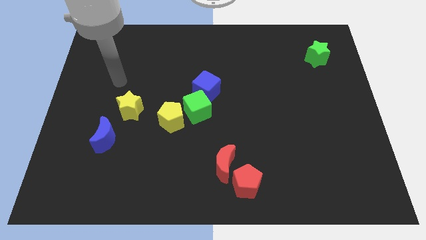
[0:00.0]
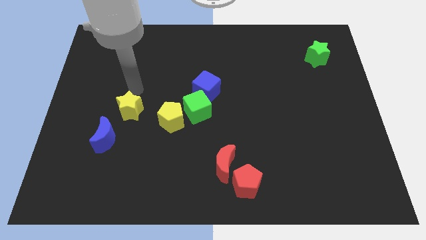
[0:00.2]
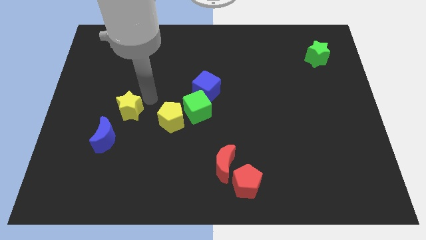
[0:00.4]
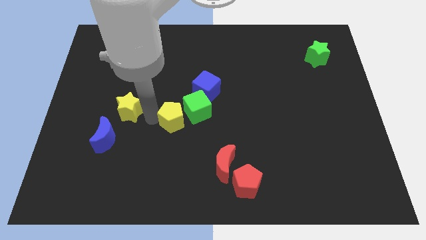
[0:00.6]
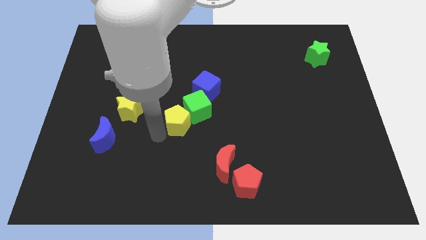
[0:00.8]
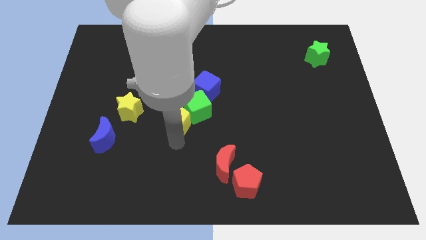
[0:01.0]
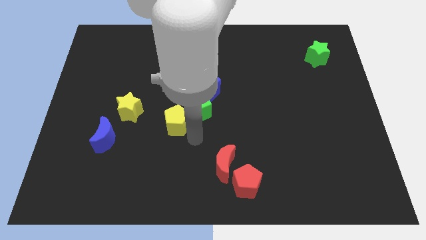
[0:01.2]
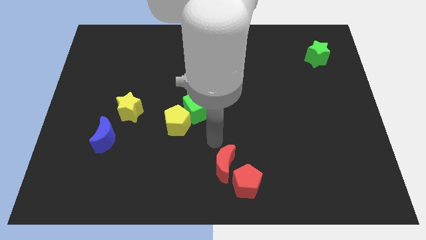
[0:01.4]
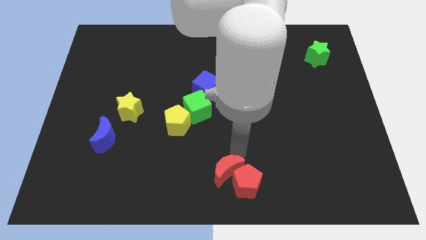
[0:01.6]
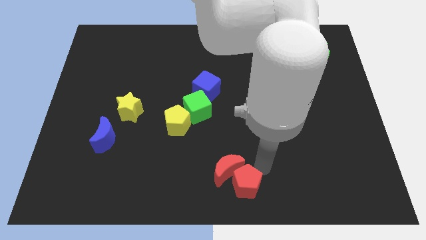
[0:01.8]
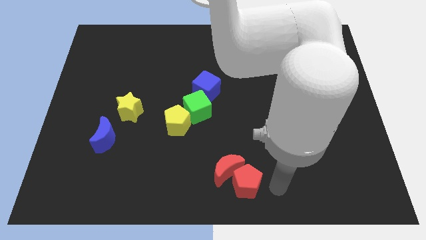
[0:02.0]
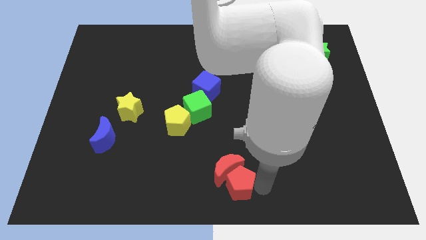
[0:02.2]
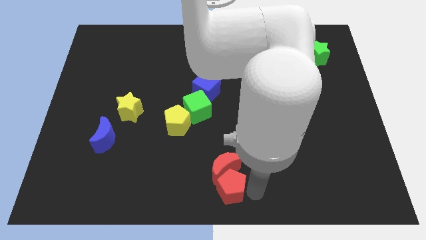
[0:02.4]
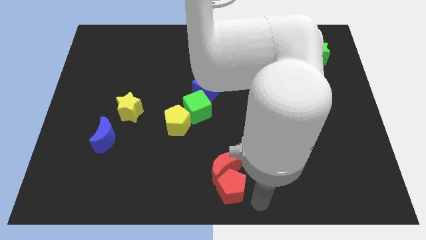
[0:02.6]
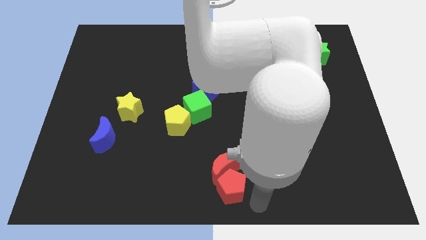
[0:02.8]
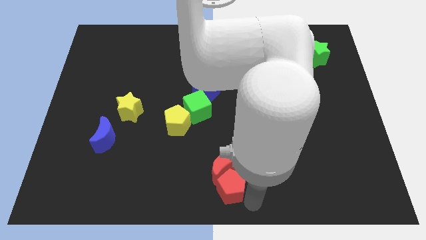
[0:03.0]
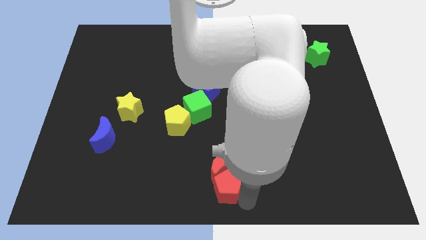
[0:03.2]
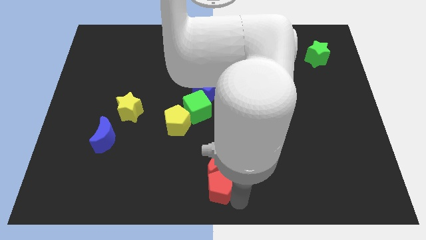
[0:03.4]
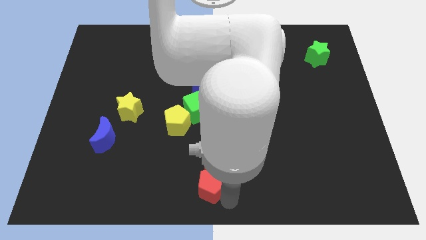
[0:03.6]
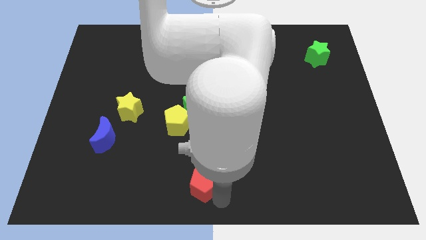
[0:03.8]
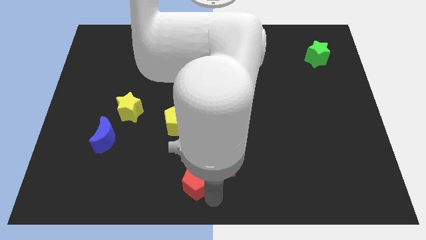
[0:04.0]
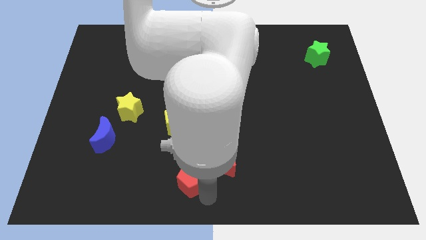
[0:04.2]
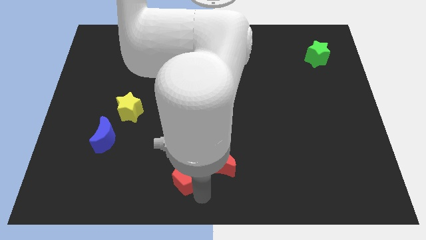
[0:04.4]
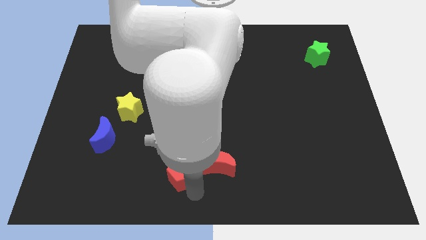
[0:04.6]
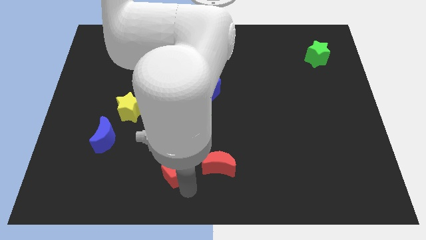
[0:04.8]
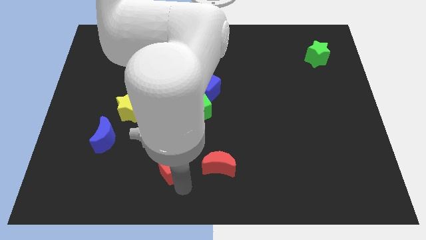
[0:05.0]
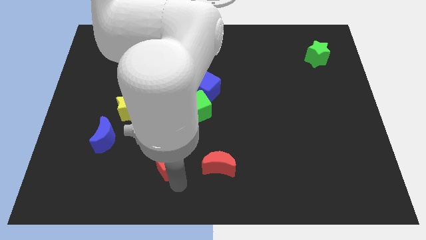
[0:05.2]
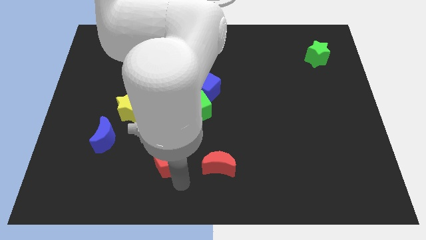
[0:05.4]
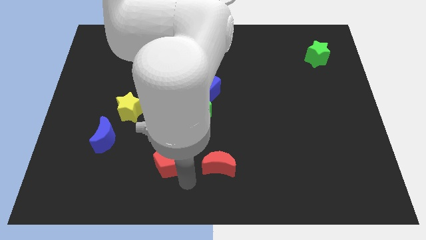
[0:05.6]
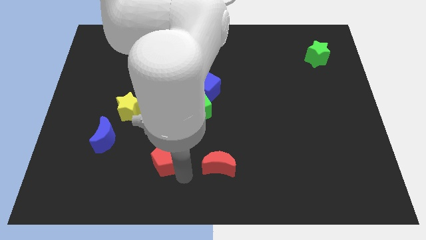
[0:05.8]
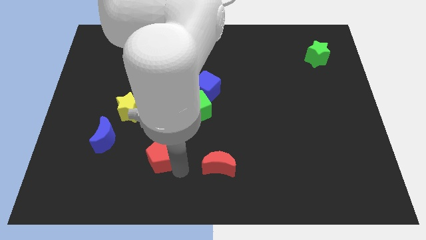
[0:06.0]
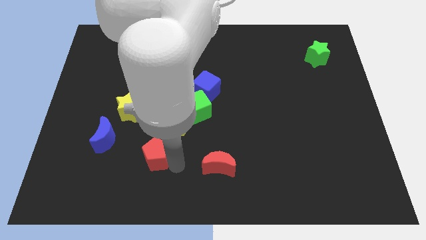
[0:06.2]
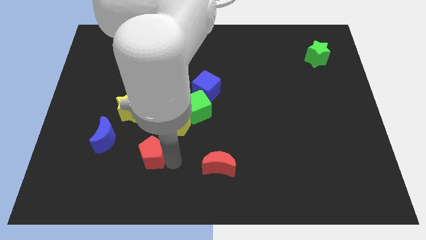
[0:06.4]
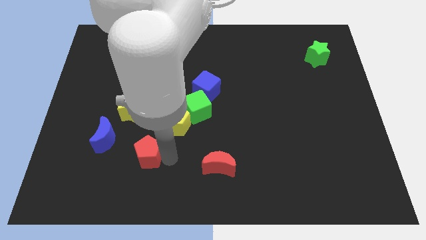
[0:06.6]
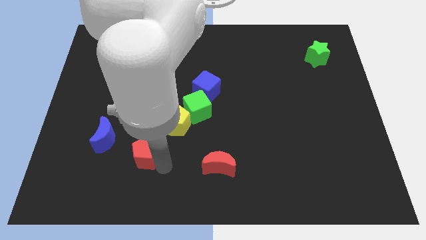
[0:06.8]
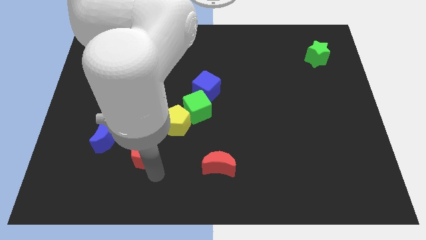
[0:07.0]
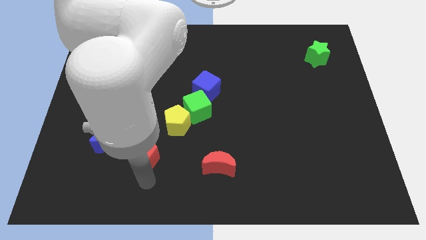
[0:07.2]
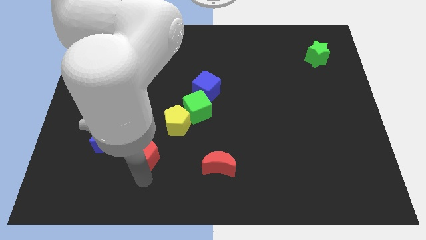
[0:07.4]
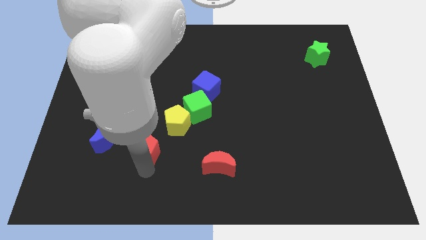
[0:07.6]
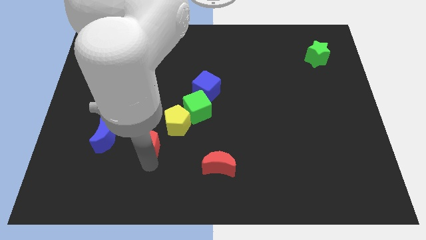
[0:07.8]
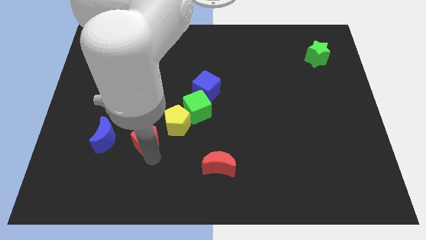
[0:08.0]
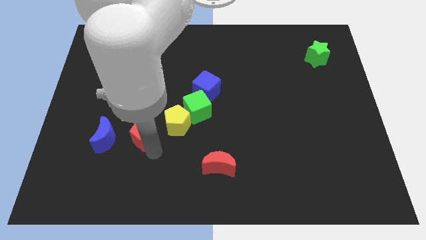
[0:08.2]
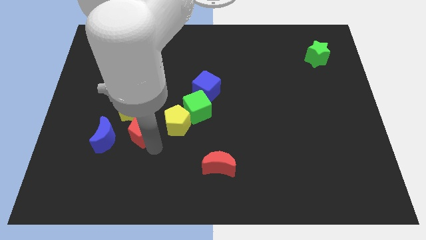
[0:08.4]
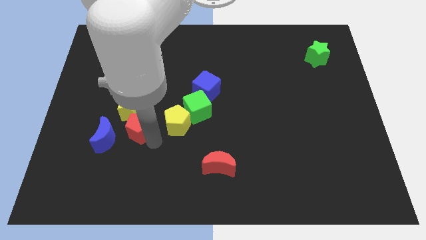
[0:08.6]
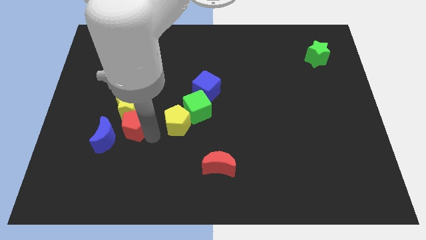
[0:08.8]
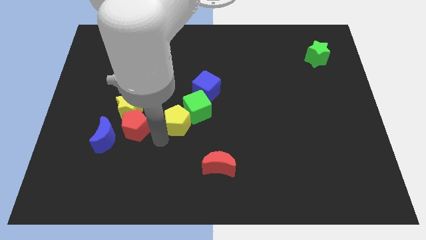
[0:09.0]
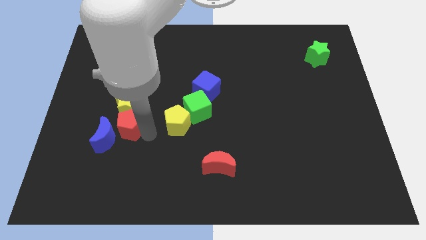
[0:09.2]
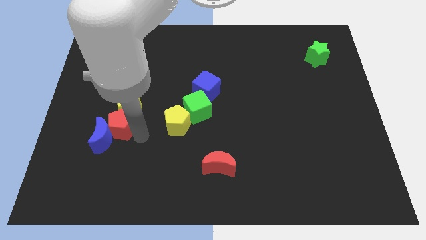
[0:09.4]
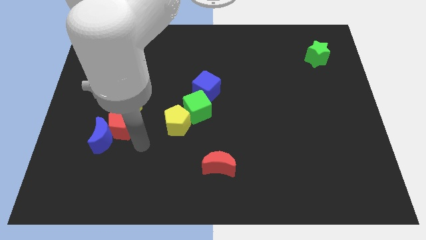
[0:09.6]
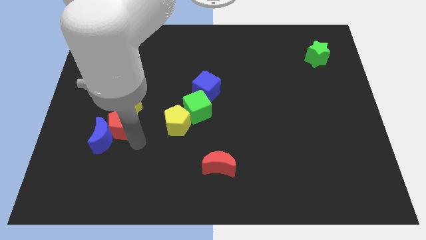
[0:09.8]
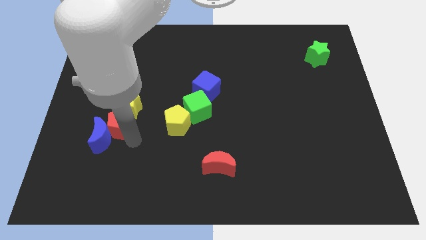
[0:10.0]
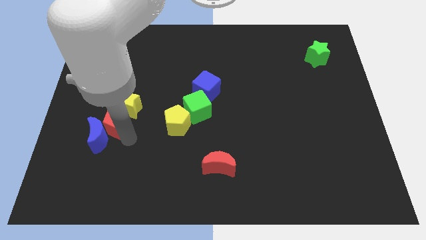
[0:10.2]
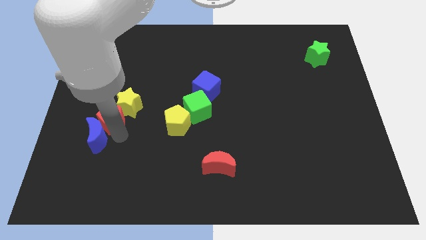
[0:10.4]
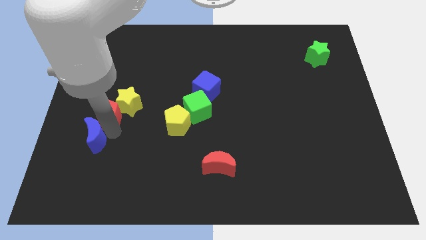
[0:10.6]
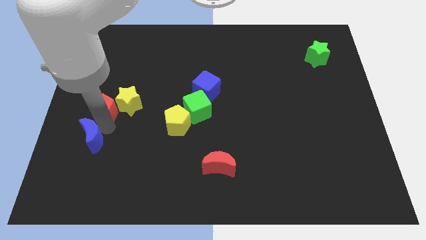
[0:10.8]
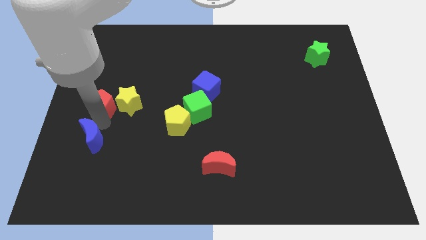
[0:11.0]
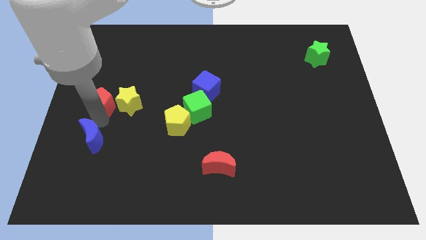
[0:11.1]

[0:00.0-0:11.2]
slide the red pentagon diagonally up and to the left of the yellow star

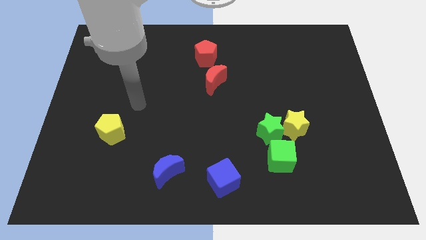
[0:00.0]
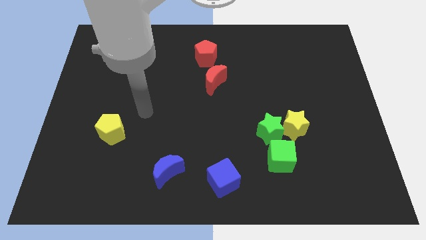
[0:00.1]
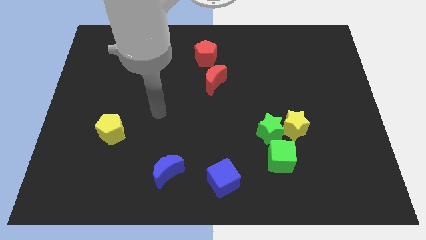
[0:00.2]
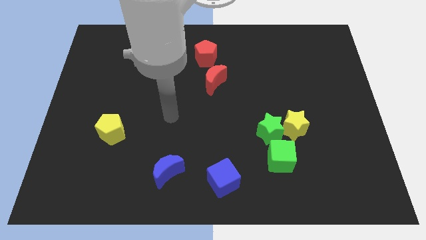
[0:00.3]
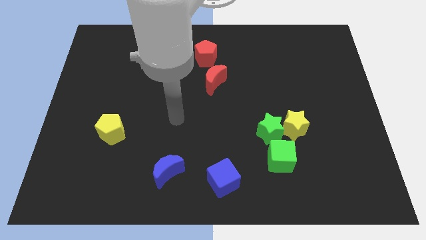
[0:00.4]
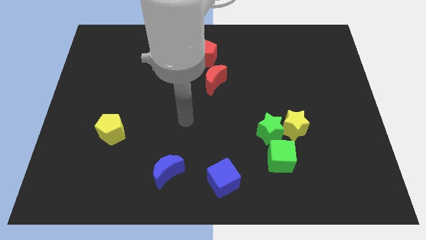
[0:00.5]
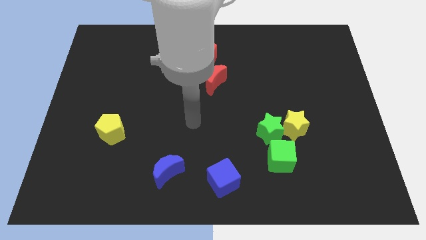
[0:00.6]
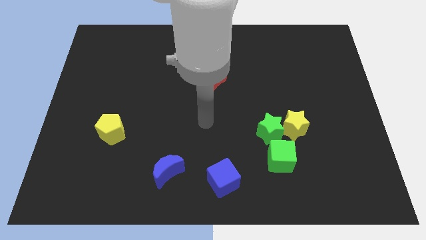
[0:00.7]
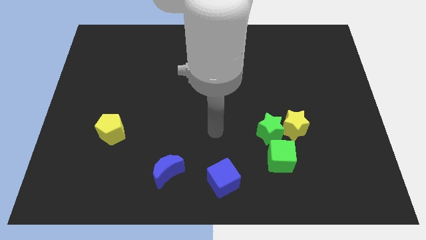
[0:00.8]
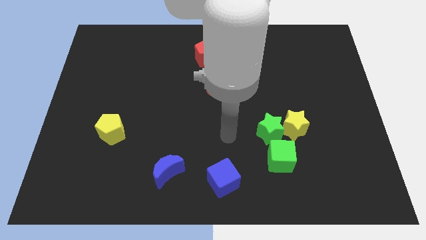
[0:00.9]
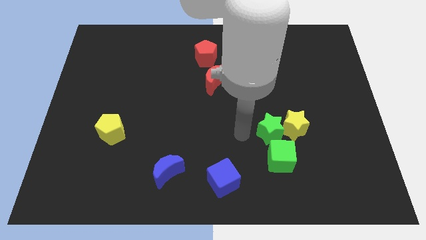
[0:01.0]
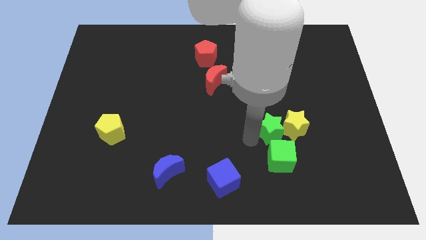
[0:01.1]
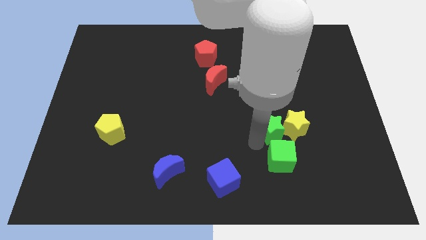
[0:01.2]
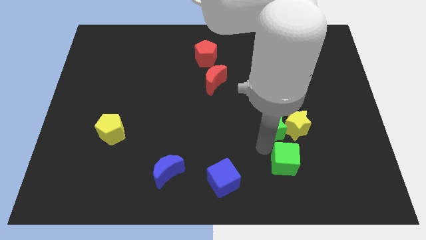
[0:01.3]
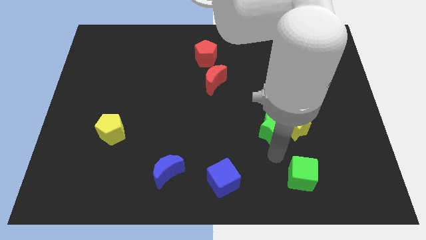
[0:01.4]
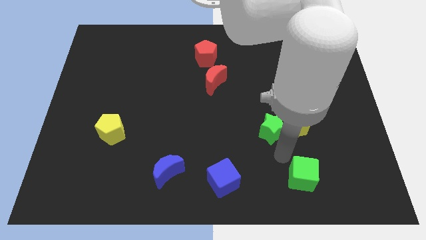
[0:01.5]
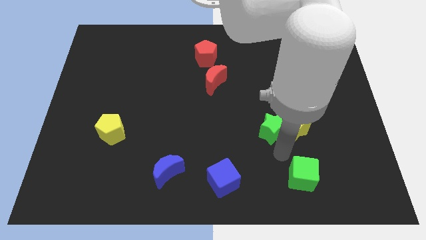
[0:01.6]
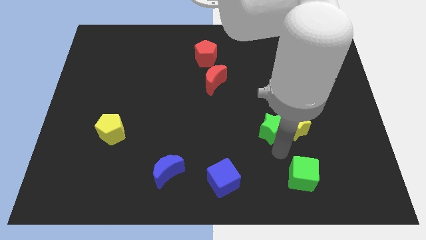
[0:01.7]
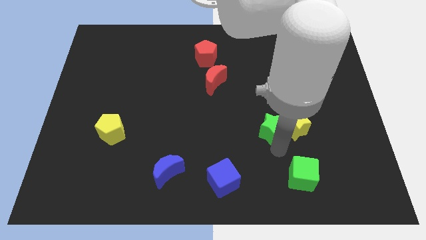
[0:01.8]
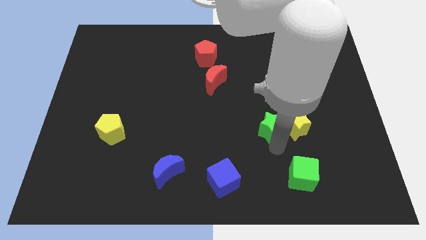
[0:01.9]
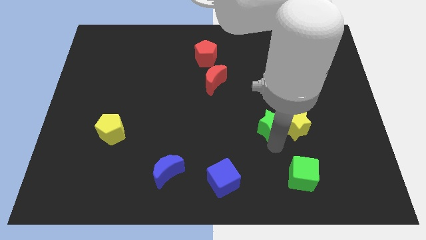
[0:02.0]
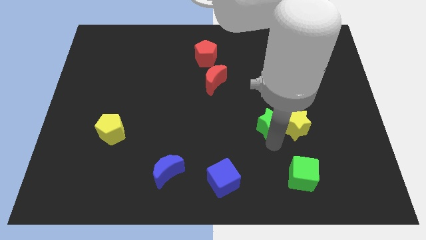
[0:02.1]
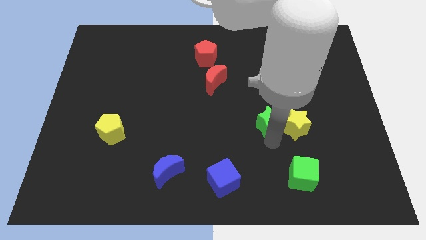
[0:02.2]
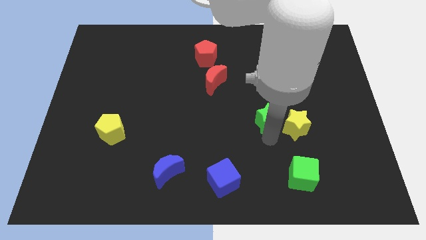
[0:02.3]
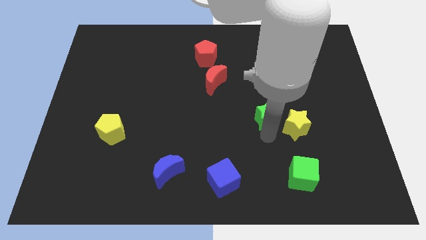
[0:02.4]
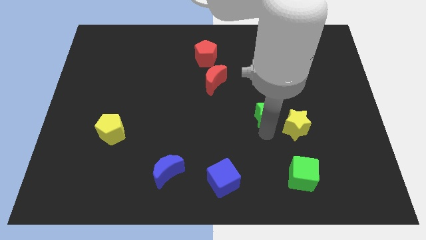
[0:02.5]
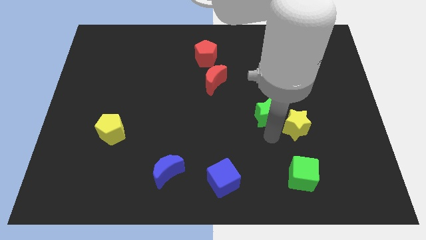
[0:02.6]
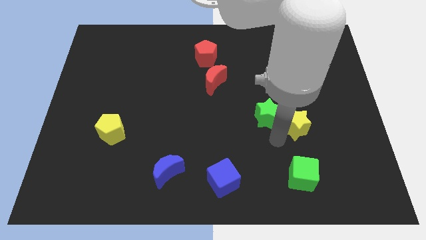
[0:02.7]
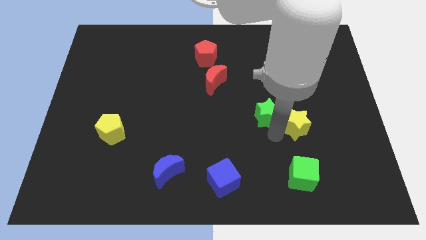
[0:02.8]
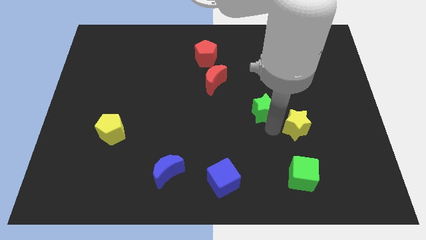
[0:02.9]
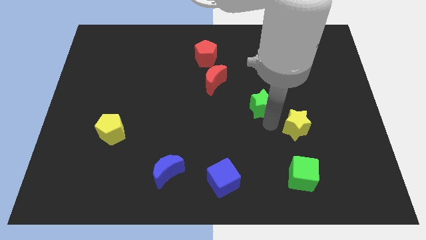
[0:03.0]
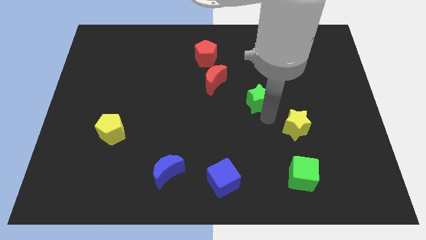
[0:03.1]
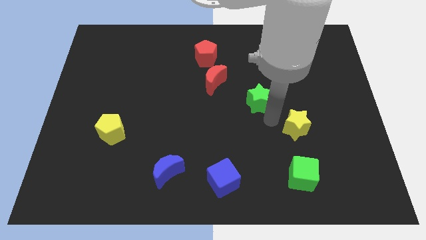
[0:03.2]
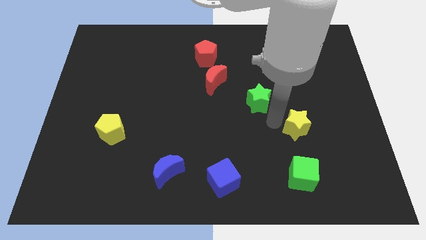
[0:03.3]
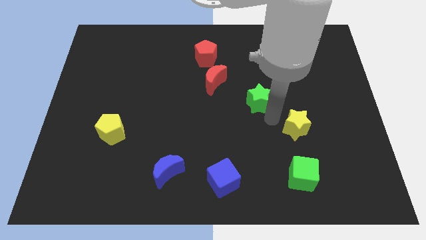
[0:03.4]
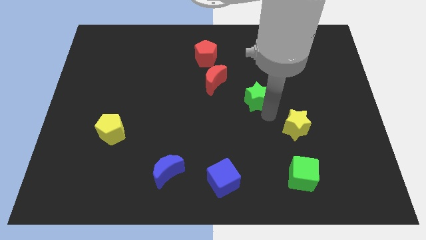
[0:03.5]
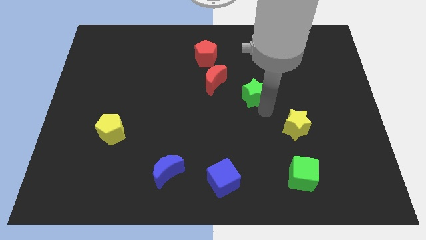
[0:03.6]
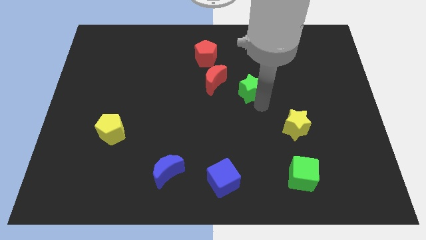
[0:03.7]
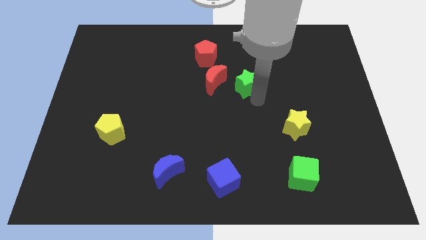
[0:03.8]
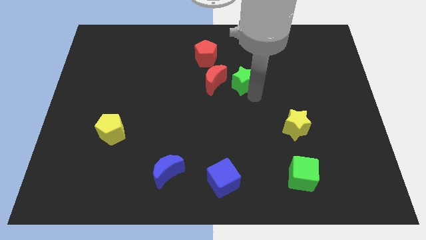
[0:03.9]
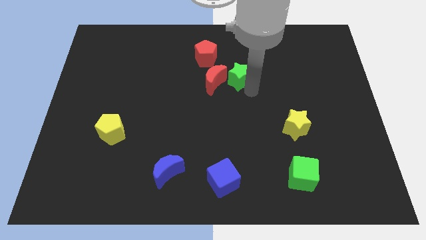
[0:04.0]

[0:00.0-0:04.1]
push the green star to the bottom right of the red pentagon
